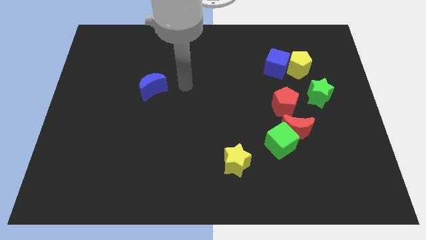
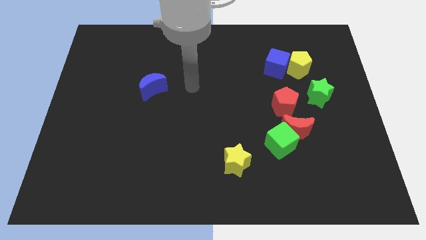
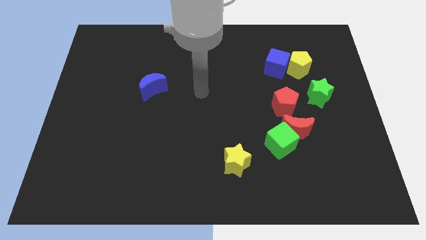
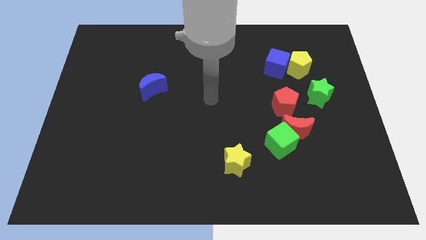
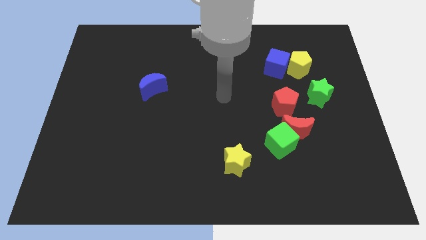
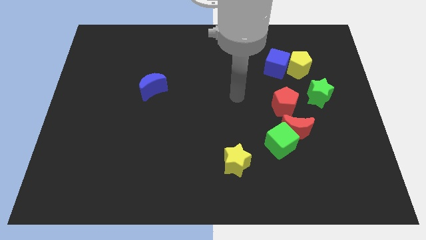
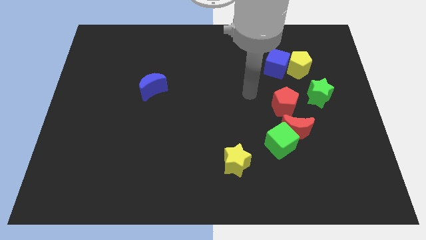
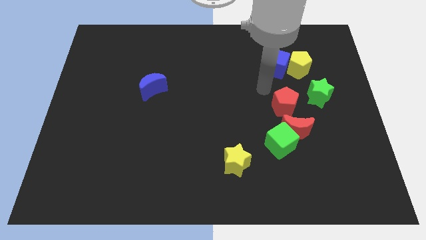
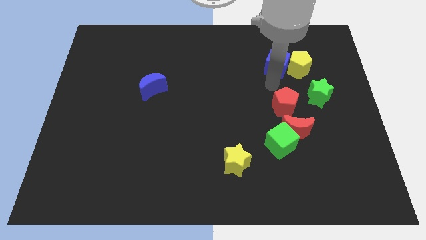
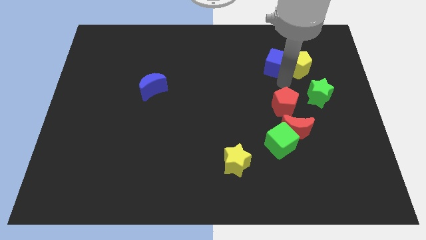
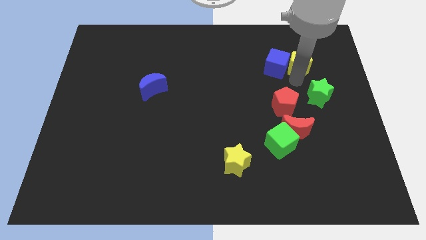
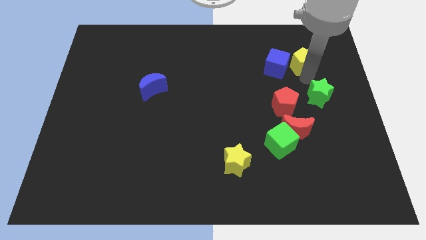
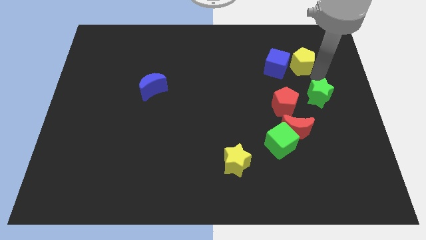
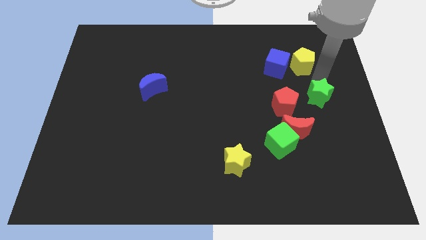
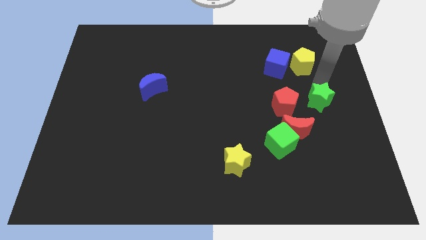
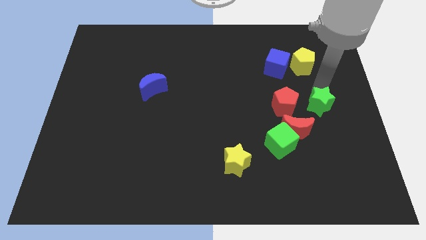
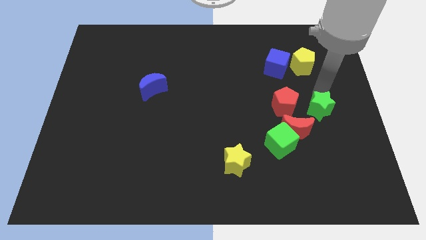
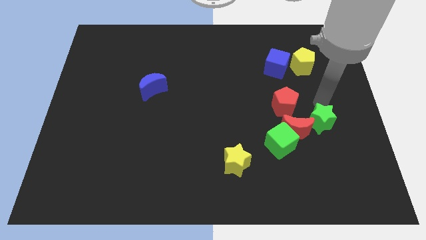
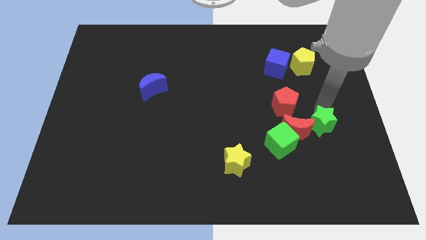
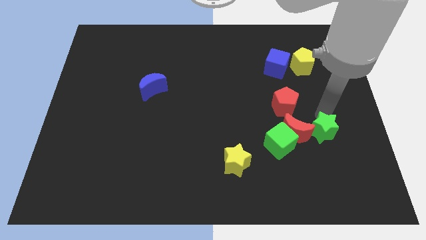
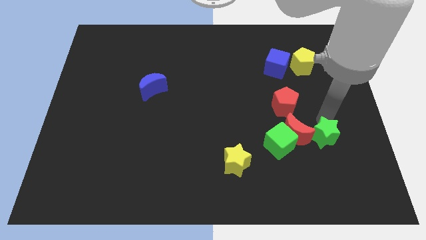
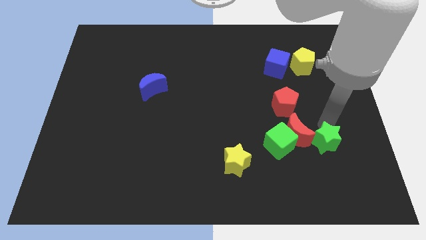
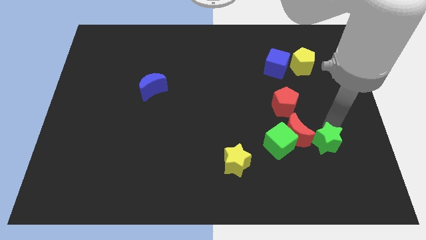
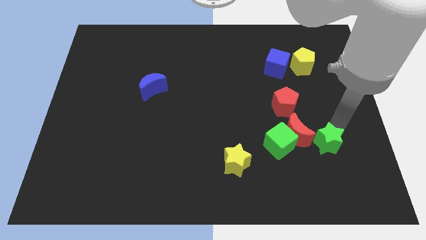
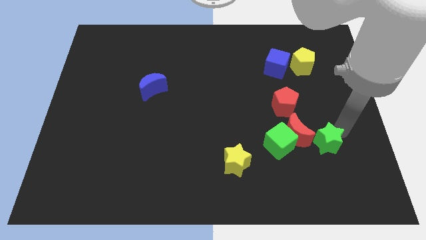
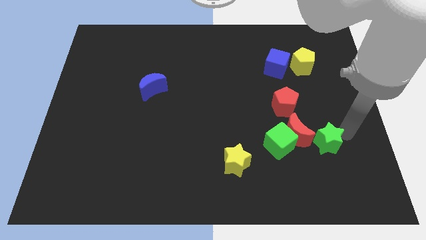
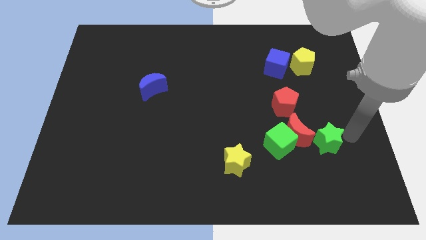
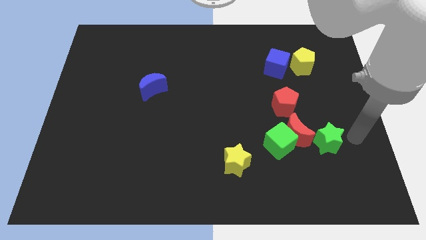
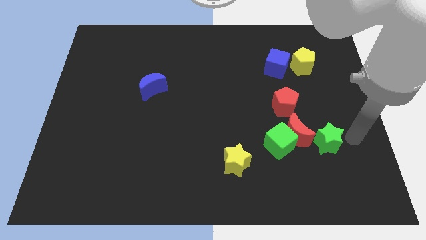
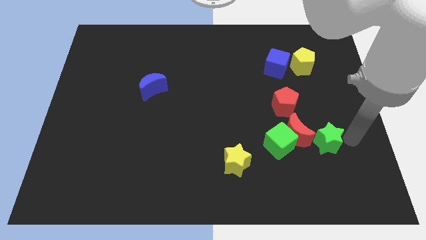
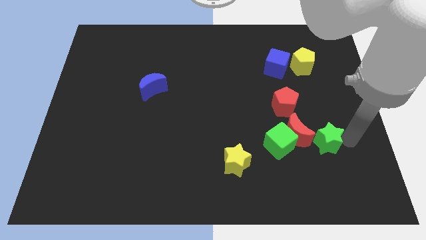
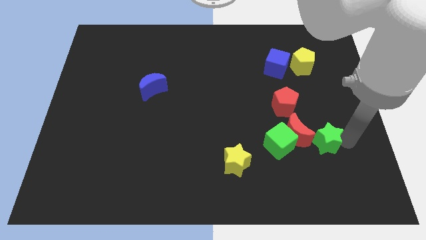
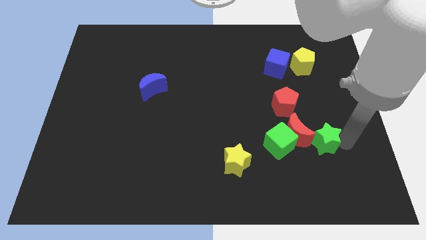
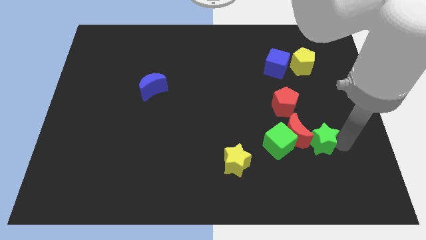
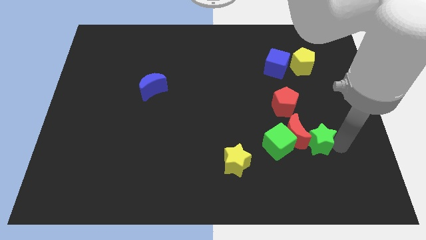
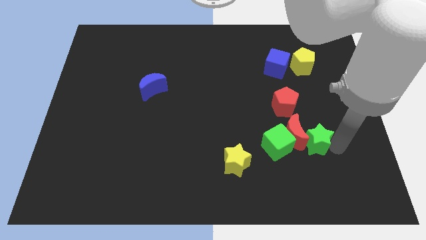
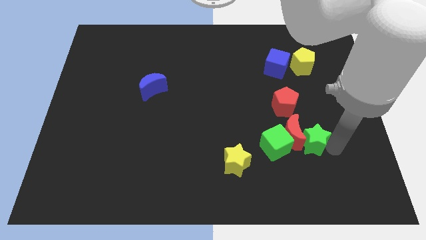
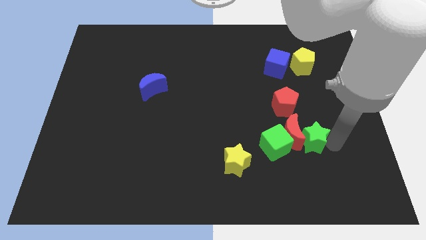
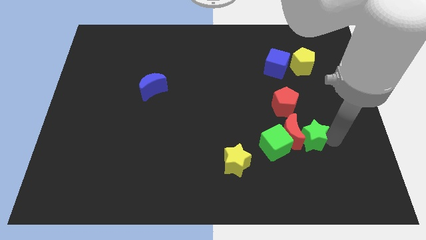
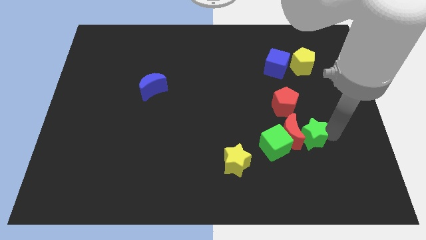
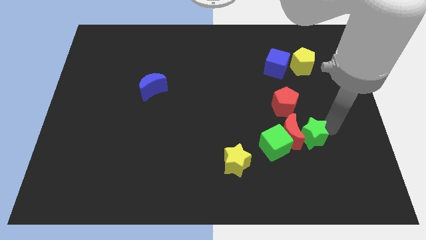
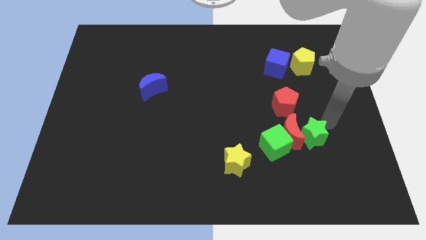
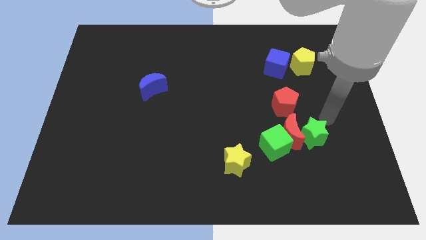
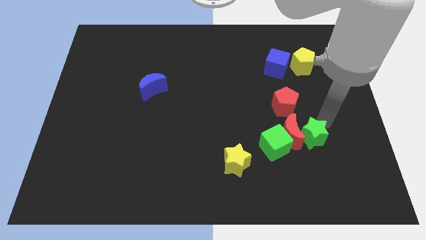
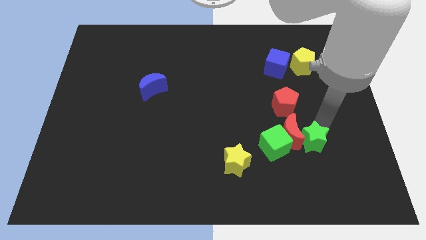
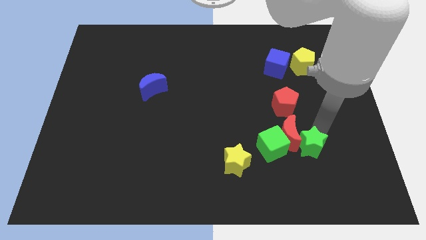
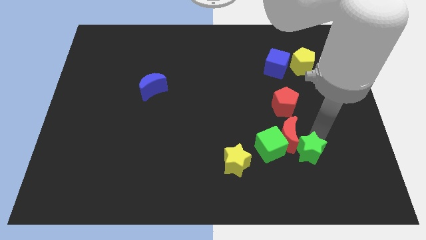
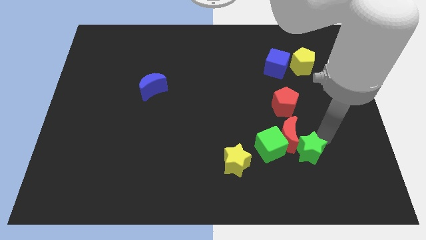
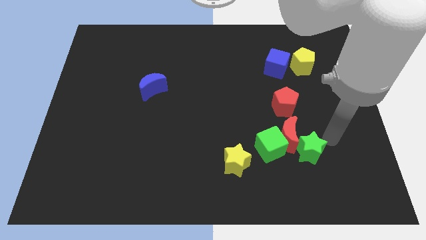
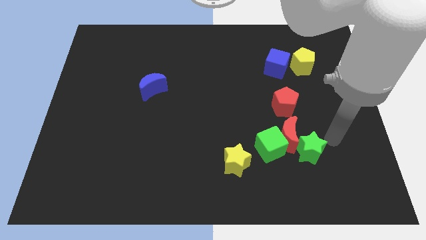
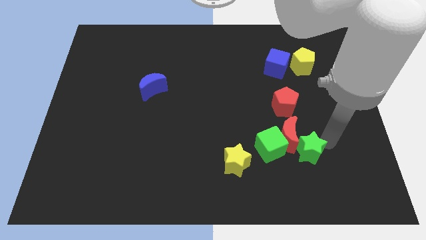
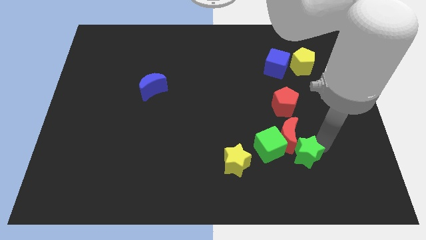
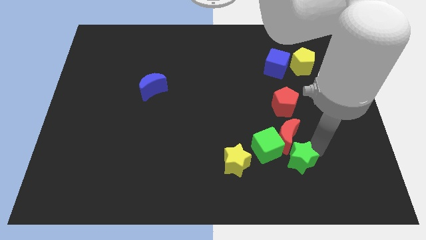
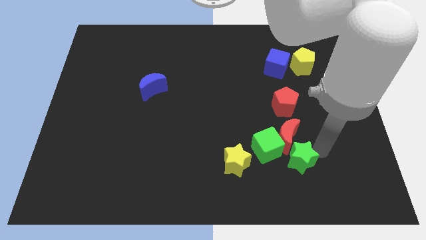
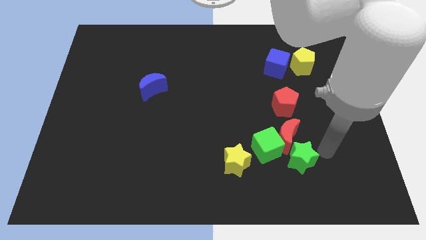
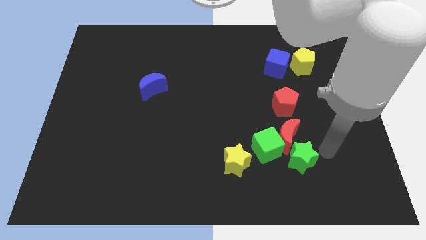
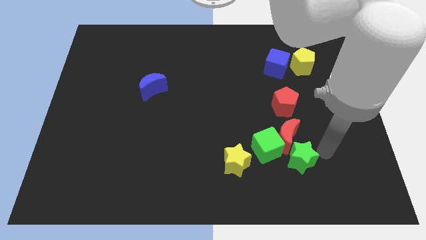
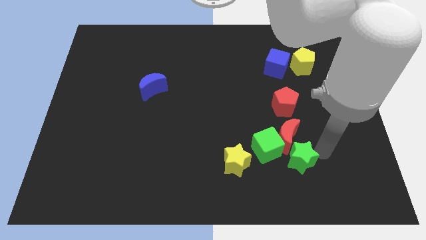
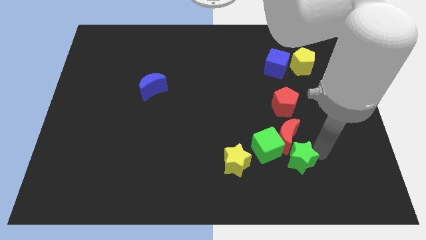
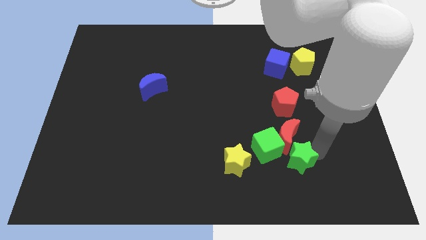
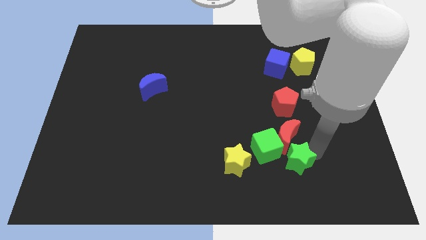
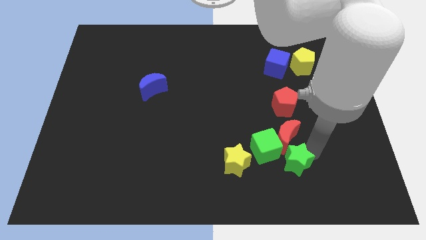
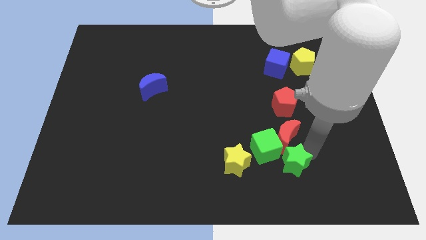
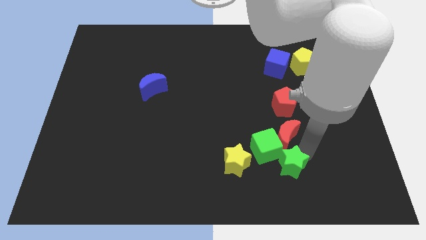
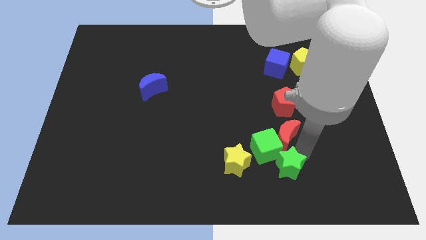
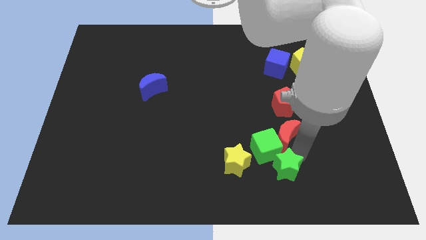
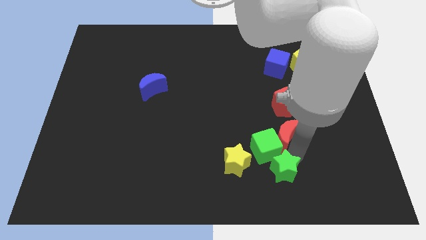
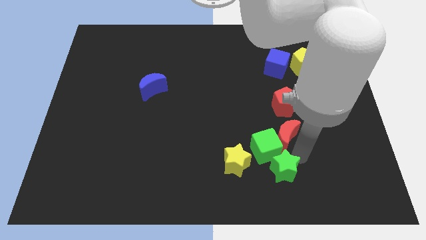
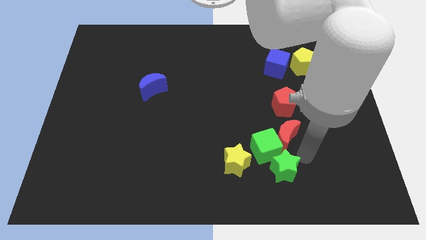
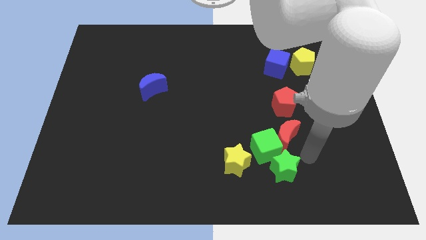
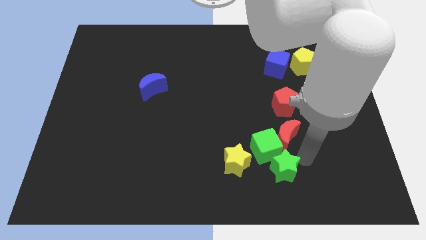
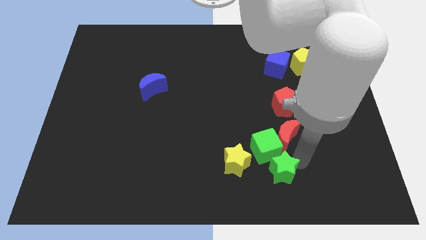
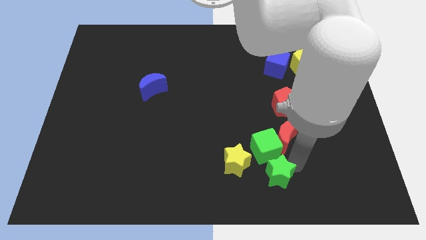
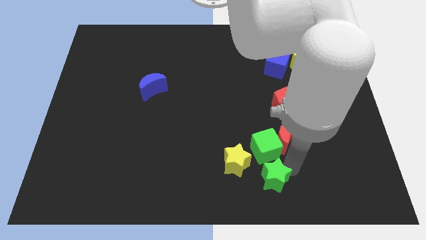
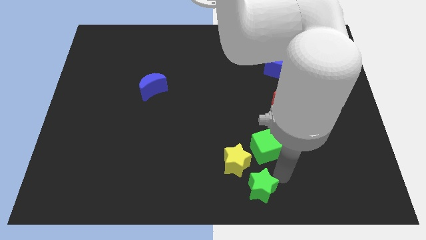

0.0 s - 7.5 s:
push the green star to the bottom
